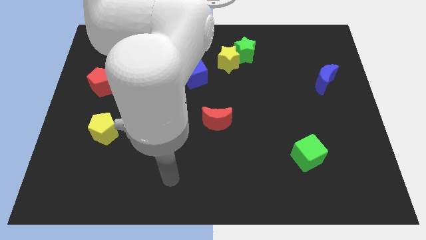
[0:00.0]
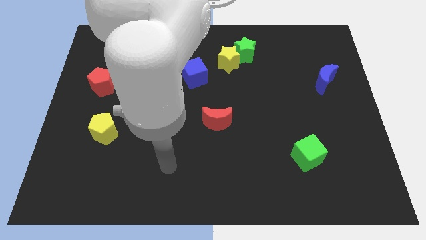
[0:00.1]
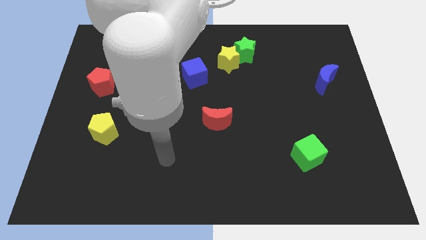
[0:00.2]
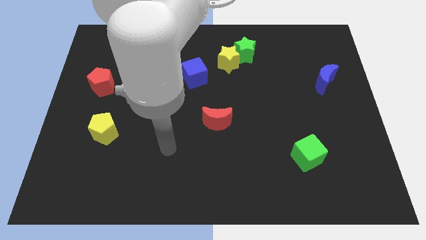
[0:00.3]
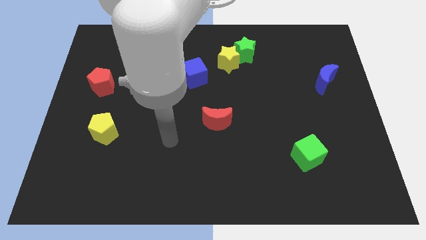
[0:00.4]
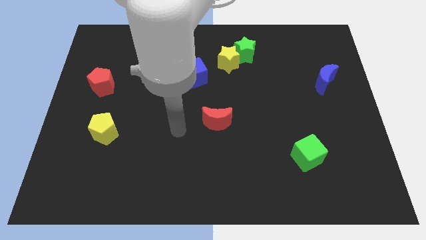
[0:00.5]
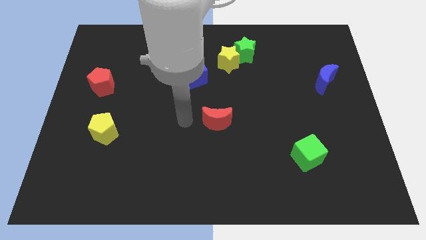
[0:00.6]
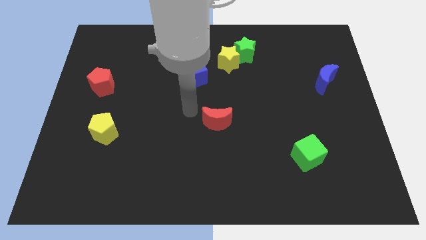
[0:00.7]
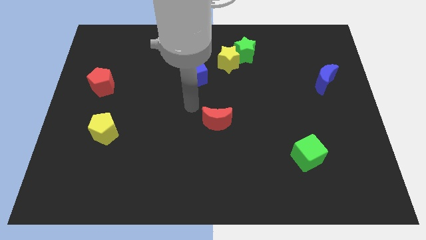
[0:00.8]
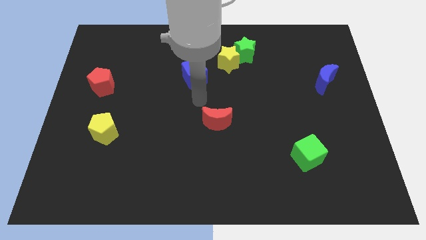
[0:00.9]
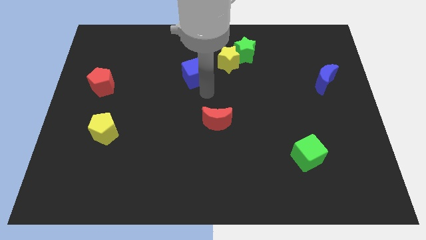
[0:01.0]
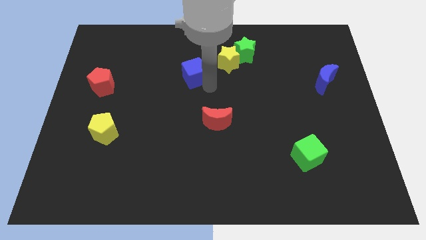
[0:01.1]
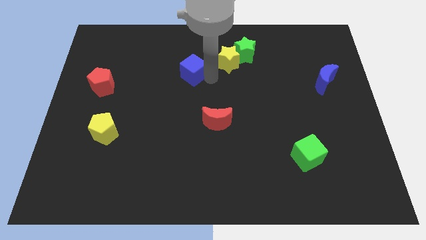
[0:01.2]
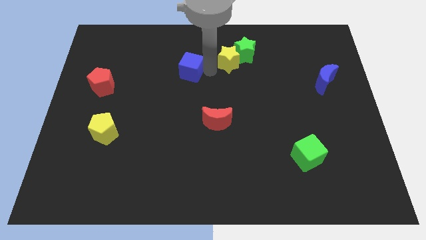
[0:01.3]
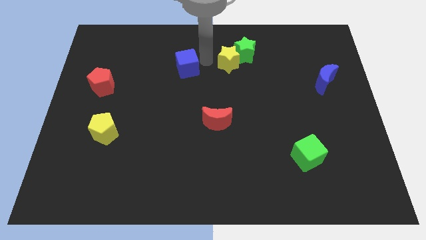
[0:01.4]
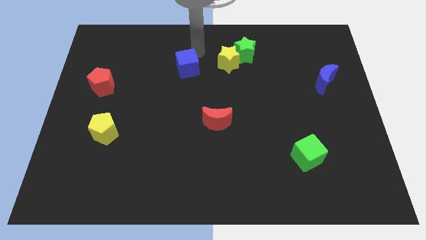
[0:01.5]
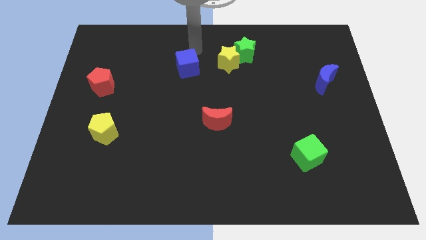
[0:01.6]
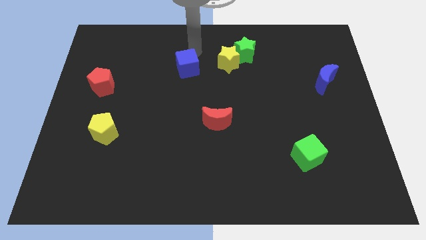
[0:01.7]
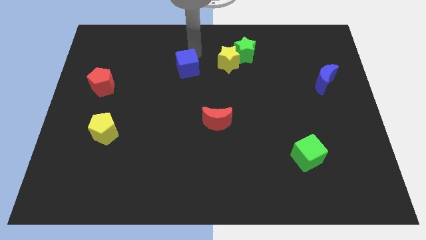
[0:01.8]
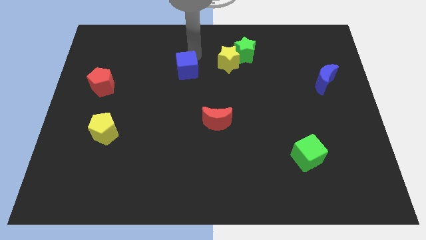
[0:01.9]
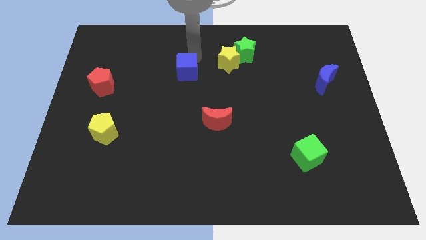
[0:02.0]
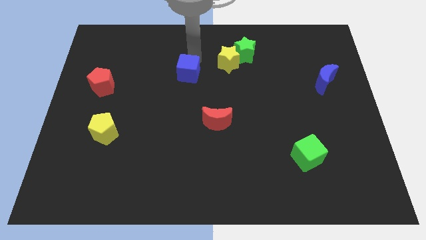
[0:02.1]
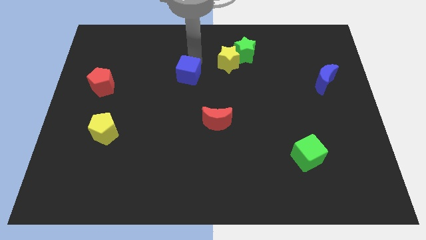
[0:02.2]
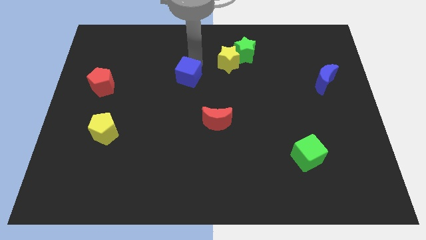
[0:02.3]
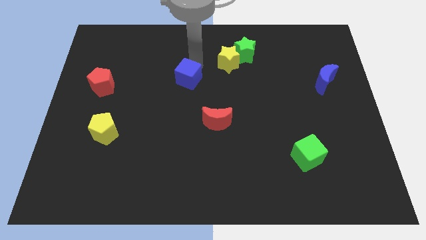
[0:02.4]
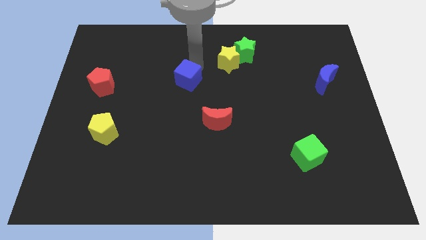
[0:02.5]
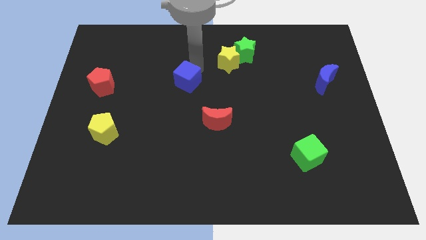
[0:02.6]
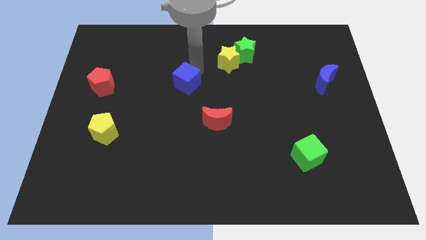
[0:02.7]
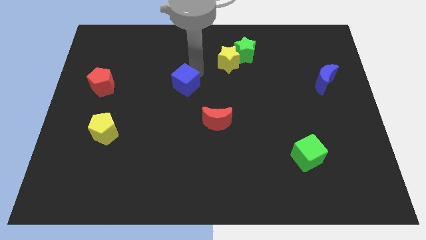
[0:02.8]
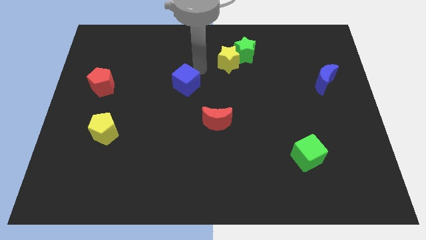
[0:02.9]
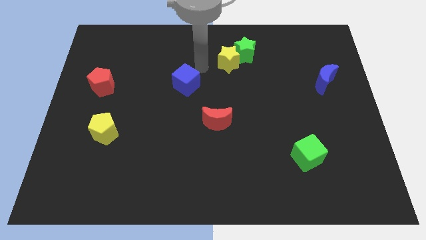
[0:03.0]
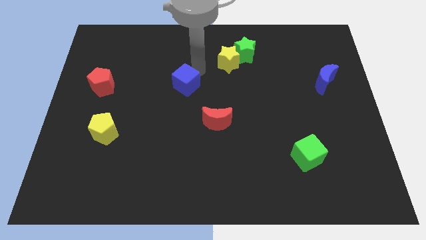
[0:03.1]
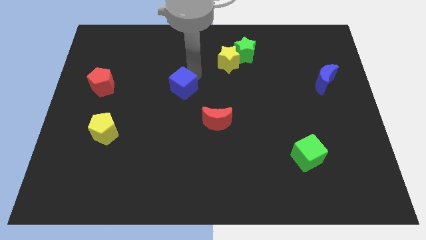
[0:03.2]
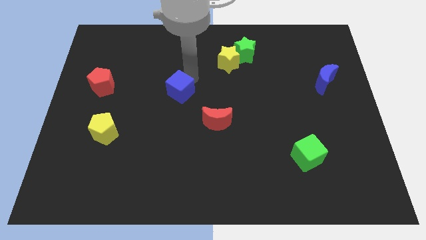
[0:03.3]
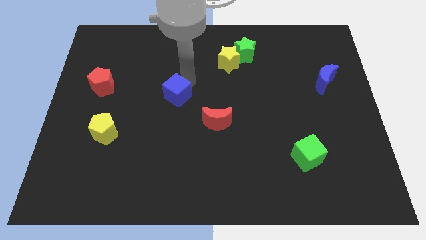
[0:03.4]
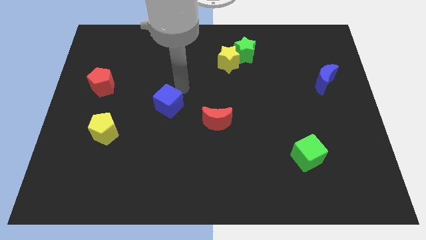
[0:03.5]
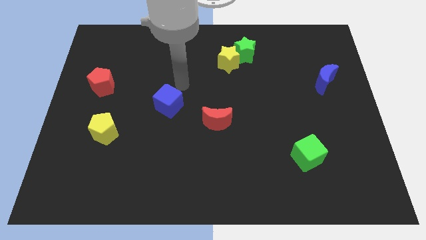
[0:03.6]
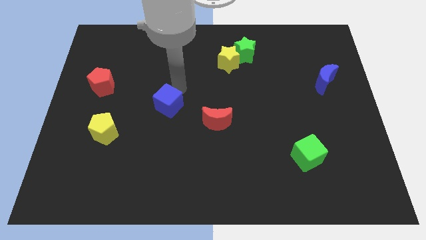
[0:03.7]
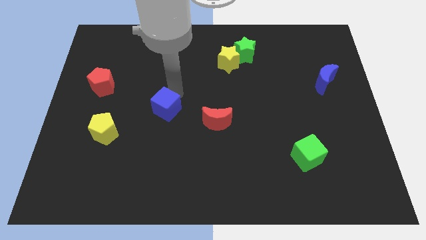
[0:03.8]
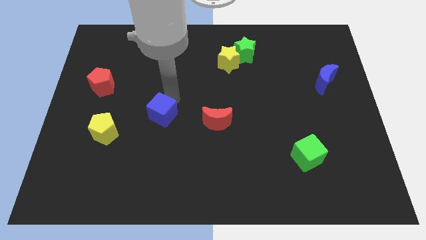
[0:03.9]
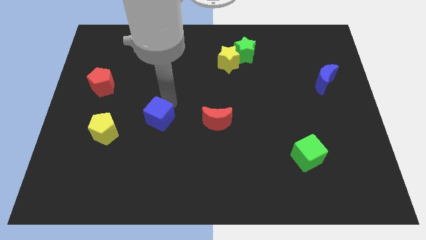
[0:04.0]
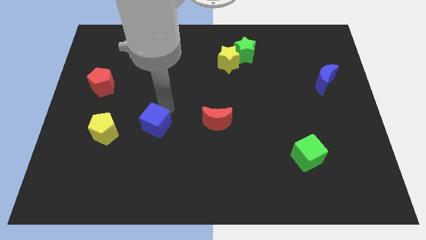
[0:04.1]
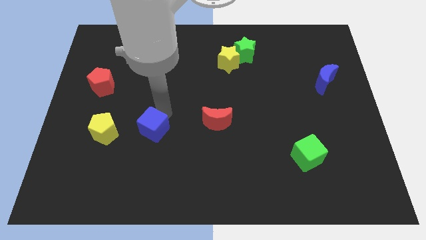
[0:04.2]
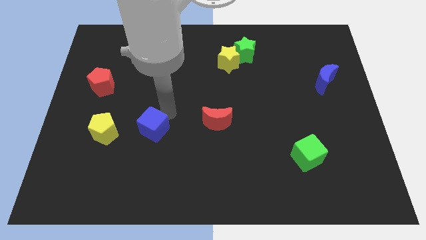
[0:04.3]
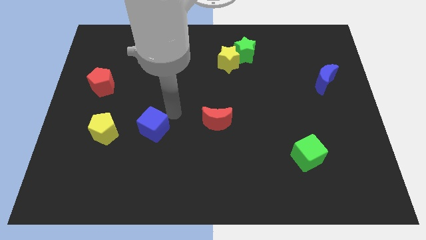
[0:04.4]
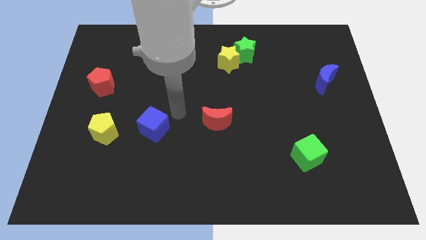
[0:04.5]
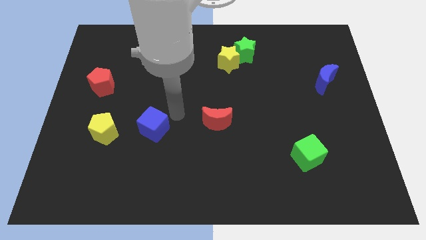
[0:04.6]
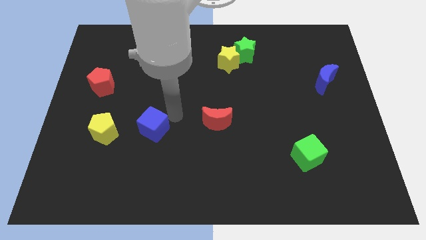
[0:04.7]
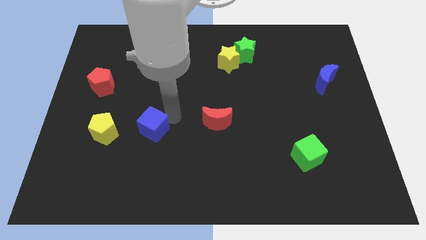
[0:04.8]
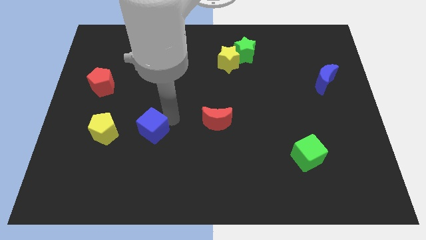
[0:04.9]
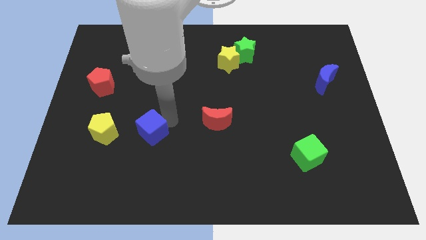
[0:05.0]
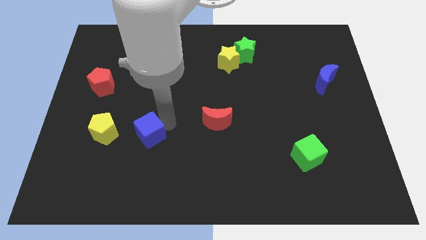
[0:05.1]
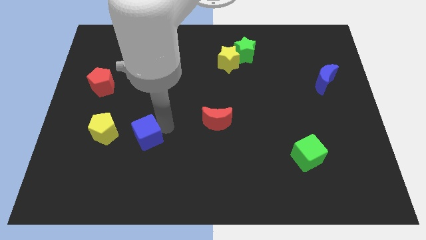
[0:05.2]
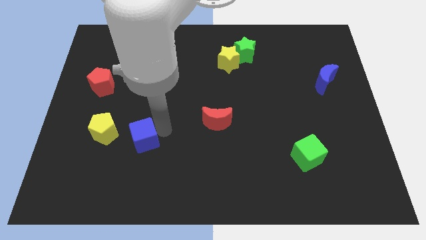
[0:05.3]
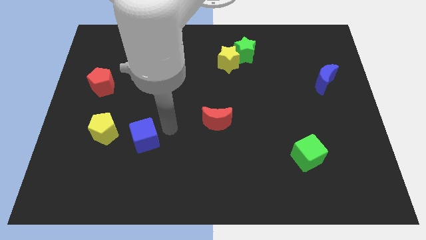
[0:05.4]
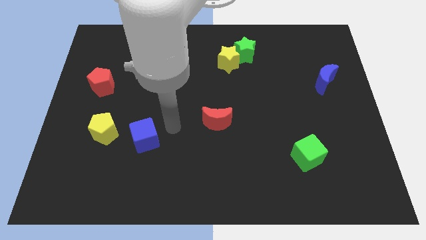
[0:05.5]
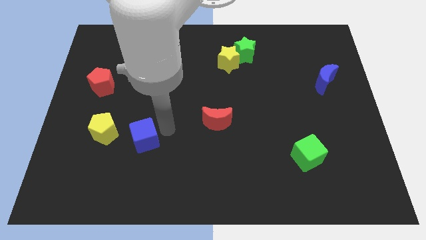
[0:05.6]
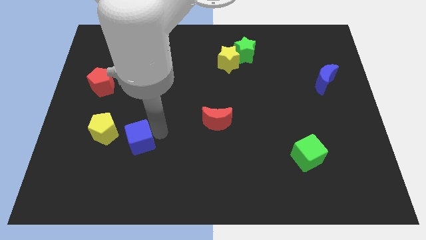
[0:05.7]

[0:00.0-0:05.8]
slide the blue cube downwards and to the left diagonally

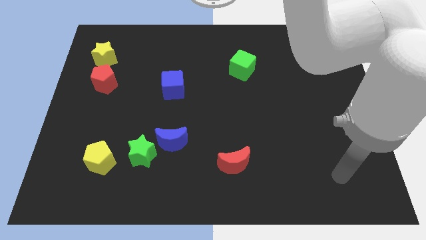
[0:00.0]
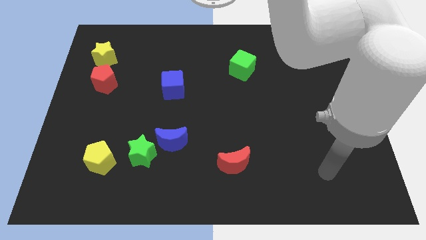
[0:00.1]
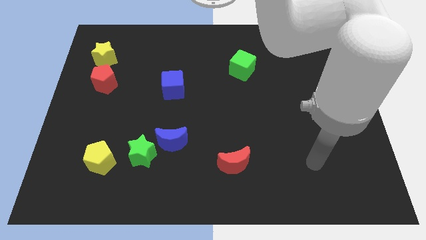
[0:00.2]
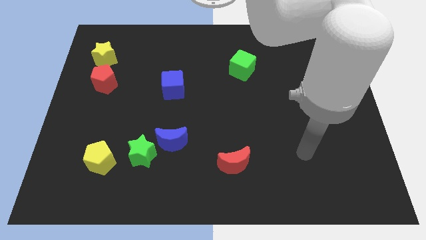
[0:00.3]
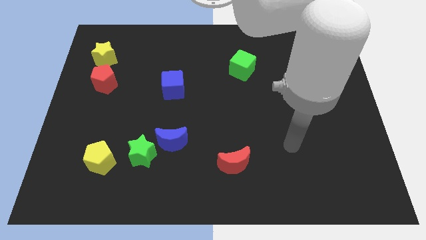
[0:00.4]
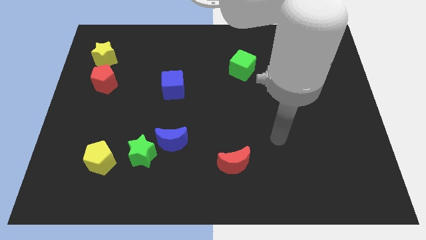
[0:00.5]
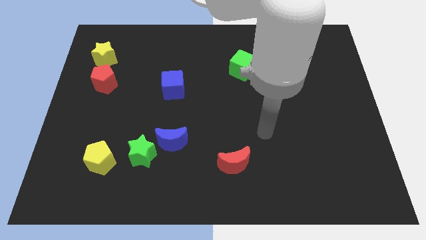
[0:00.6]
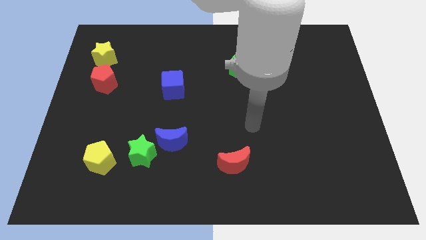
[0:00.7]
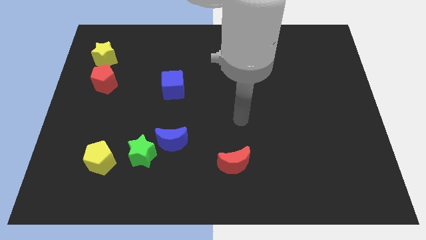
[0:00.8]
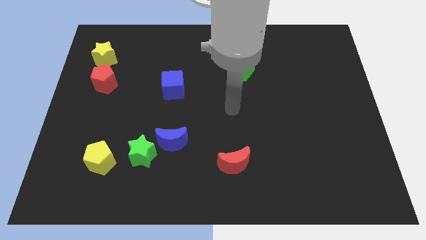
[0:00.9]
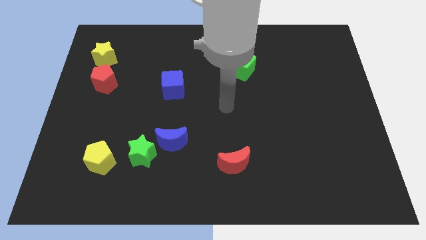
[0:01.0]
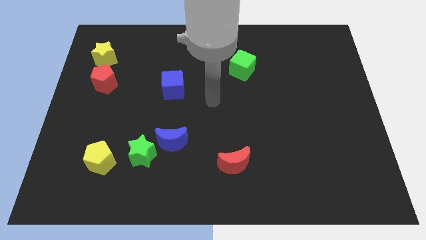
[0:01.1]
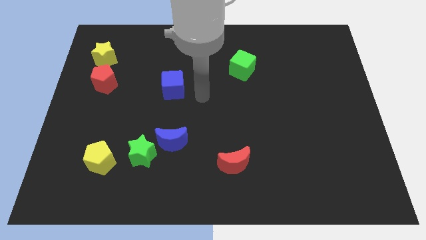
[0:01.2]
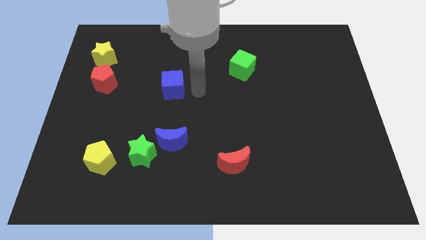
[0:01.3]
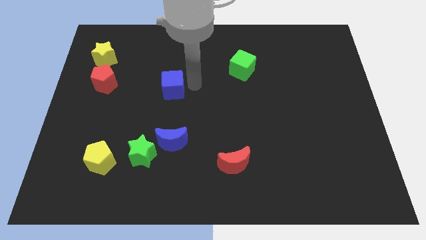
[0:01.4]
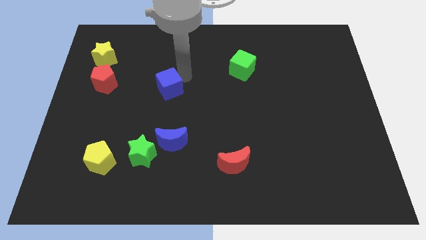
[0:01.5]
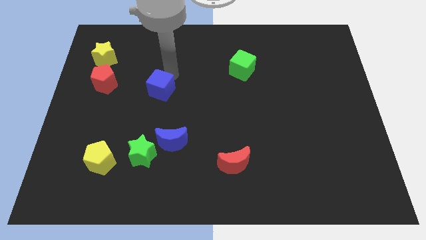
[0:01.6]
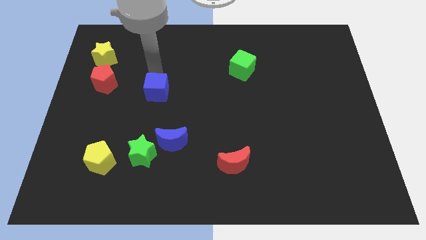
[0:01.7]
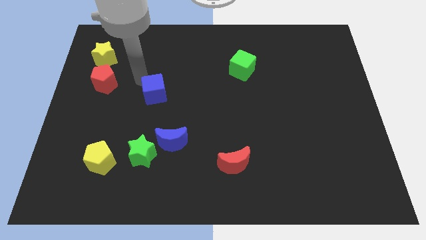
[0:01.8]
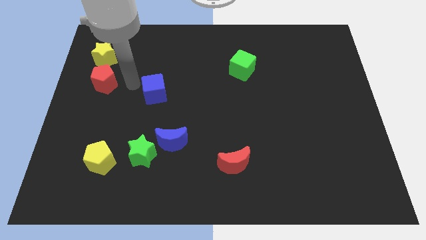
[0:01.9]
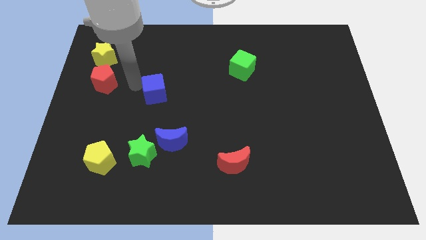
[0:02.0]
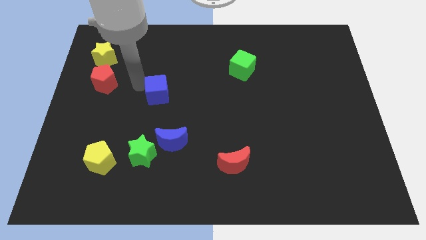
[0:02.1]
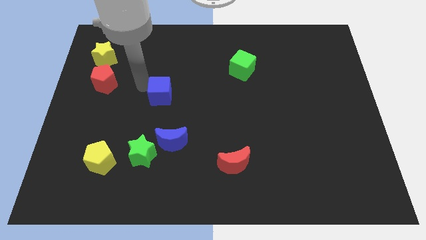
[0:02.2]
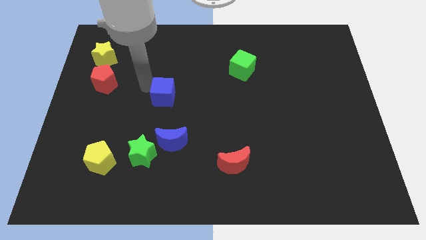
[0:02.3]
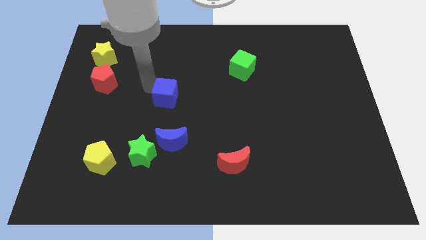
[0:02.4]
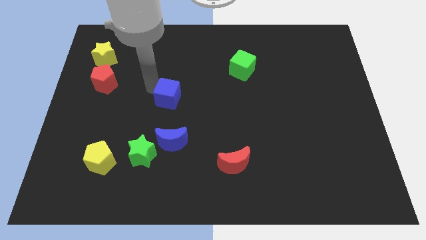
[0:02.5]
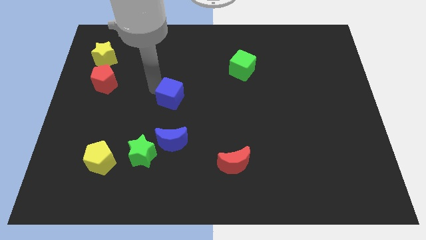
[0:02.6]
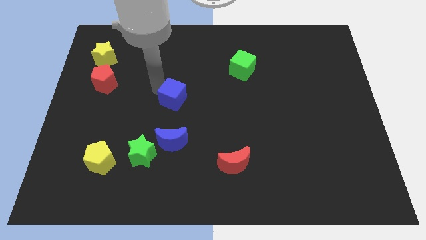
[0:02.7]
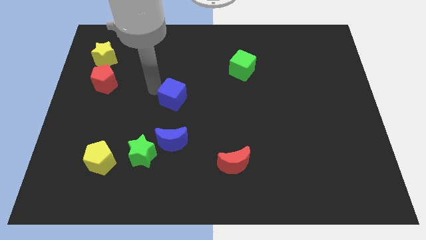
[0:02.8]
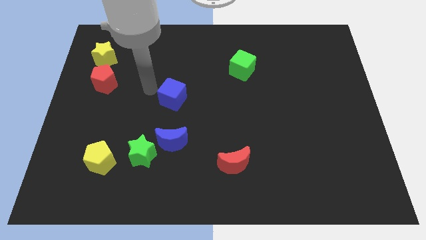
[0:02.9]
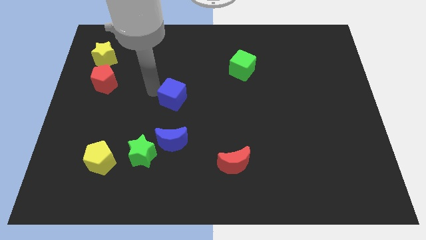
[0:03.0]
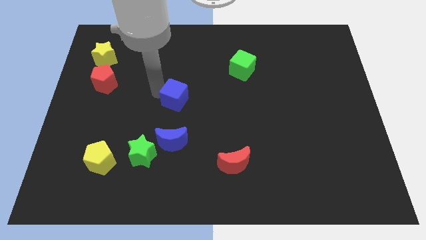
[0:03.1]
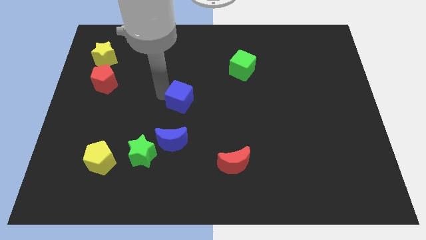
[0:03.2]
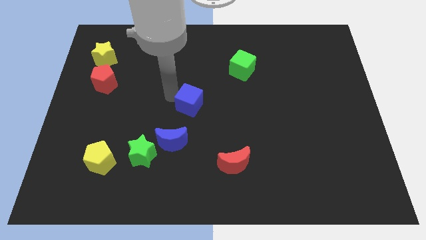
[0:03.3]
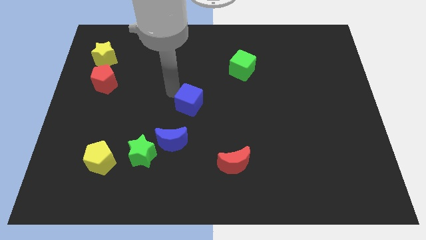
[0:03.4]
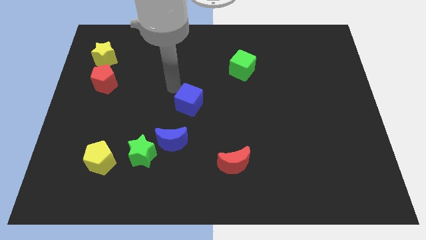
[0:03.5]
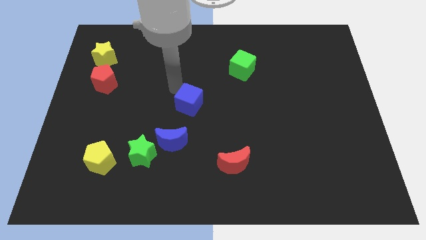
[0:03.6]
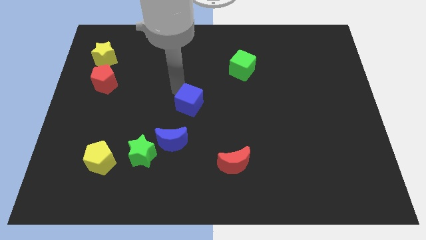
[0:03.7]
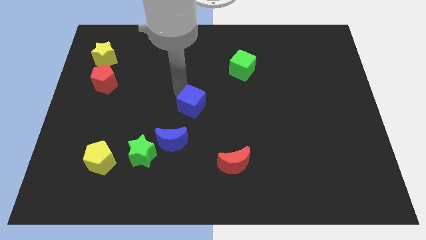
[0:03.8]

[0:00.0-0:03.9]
push the blue cube a little down and then to the right
